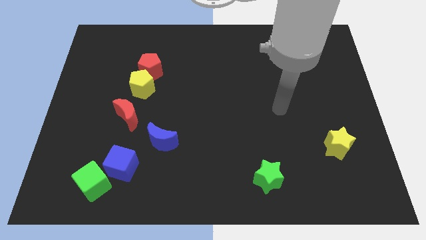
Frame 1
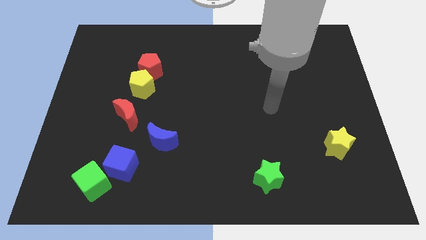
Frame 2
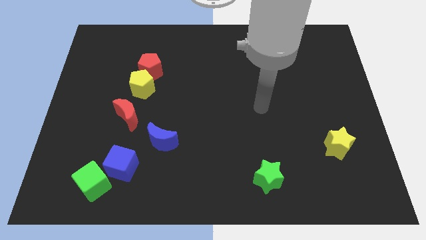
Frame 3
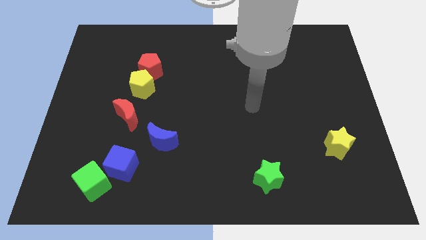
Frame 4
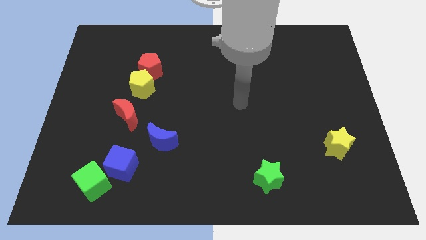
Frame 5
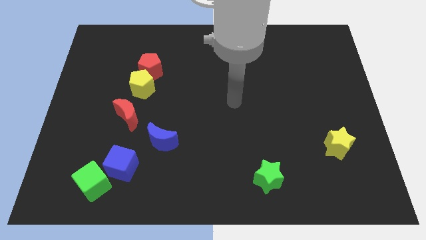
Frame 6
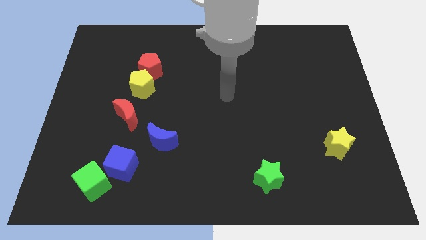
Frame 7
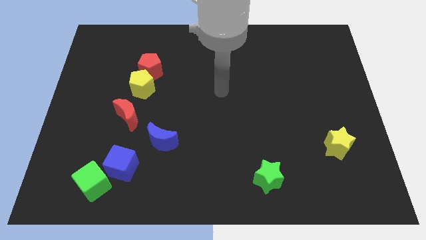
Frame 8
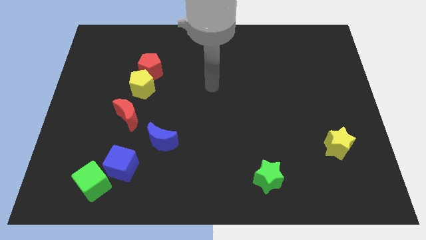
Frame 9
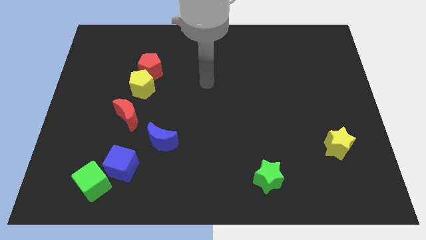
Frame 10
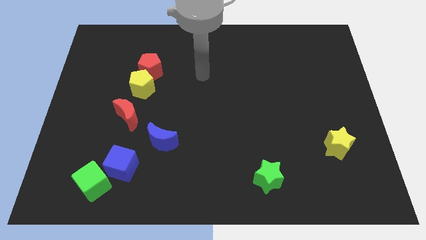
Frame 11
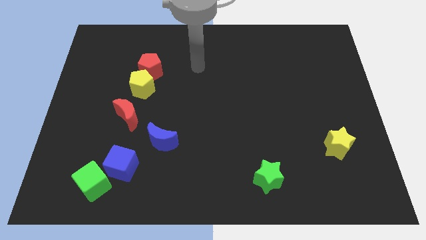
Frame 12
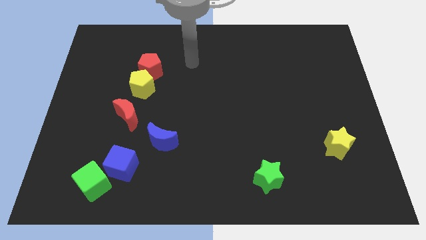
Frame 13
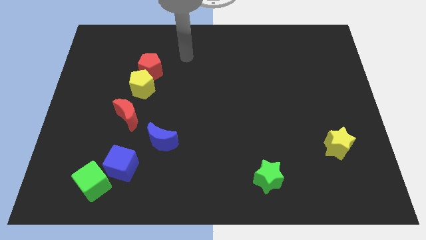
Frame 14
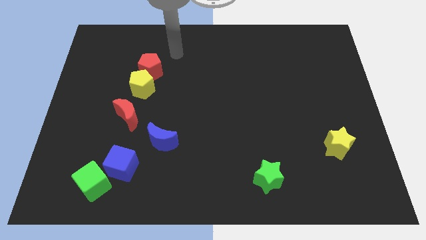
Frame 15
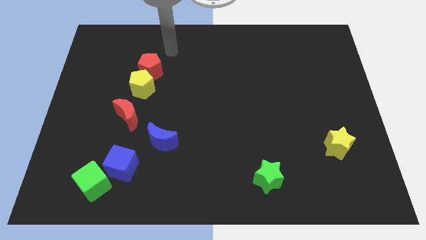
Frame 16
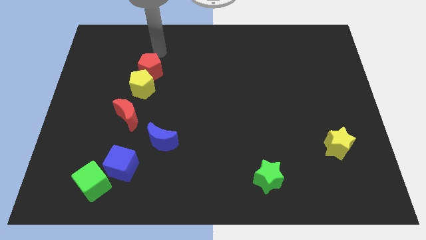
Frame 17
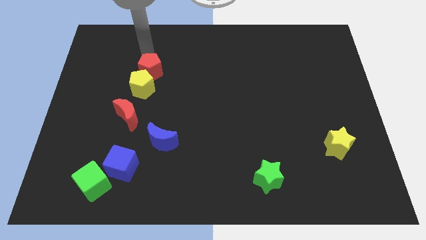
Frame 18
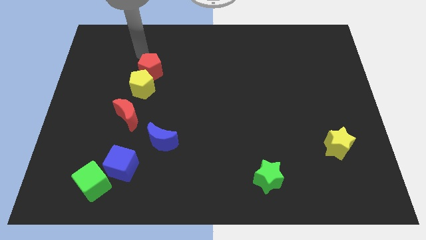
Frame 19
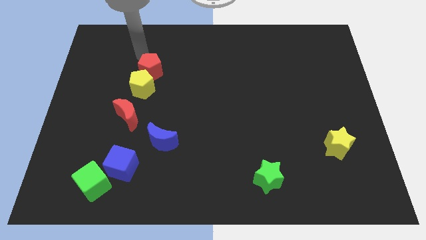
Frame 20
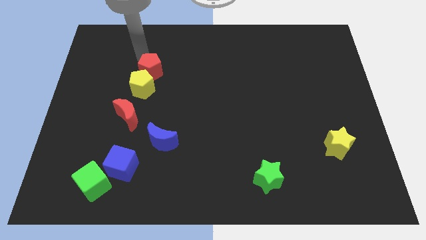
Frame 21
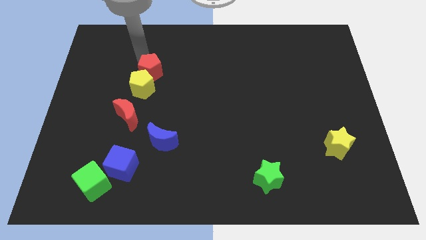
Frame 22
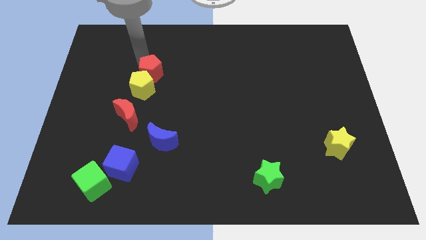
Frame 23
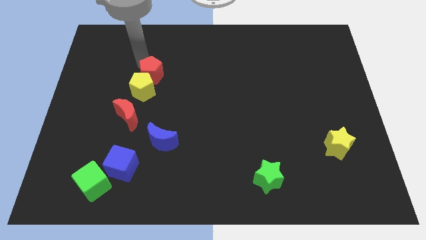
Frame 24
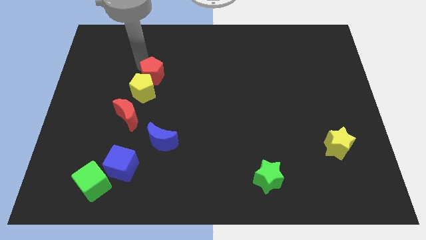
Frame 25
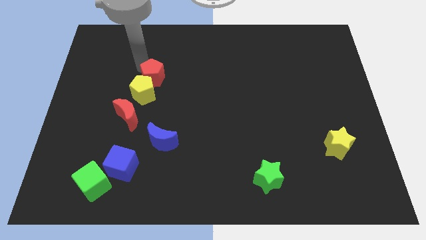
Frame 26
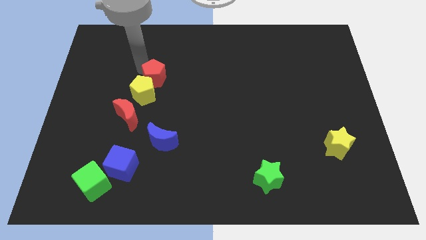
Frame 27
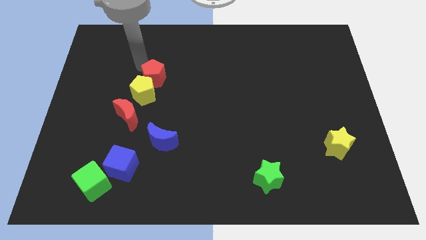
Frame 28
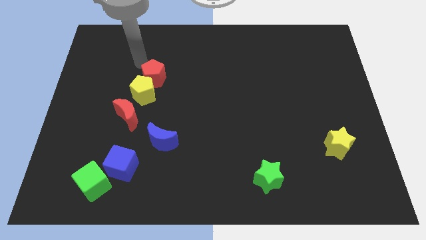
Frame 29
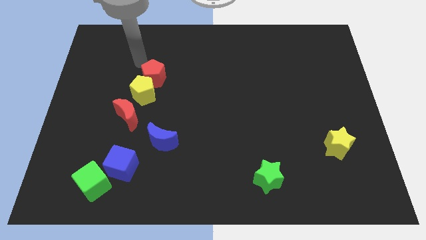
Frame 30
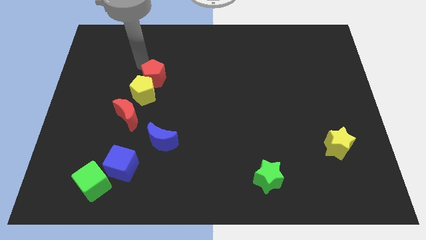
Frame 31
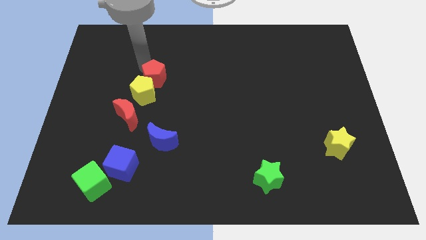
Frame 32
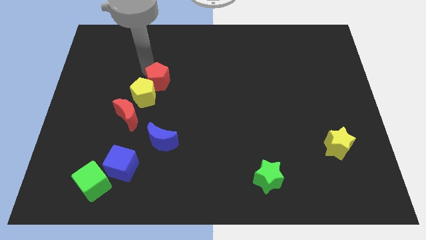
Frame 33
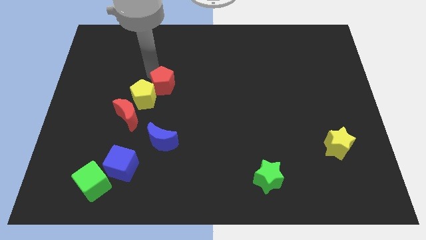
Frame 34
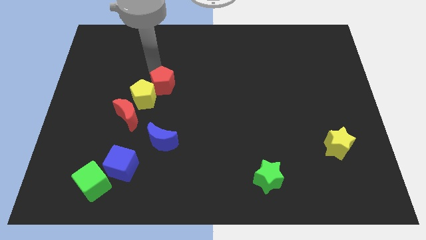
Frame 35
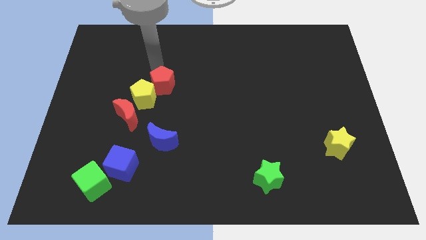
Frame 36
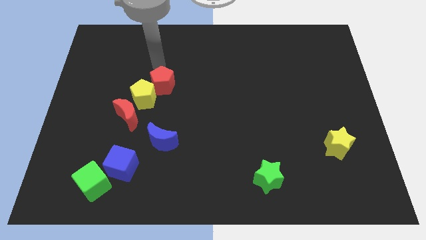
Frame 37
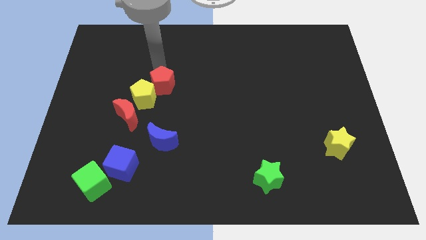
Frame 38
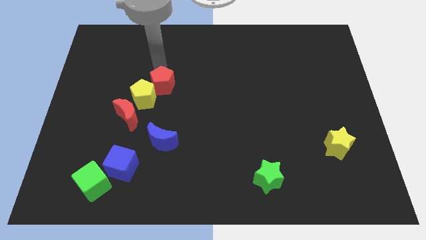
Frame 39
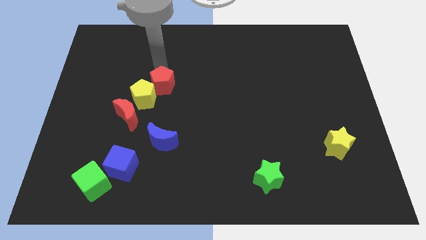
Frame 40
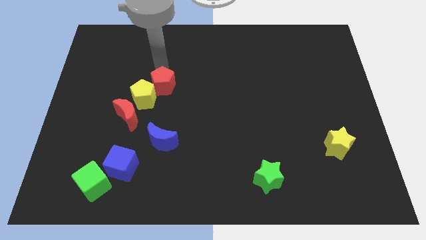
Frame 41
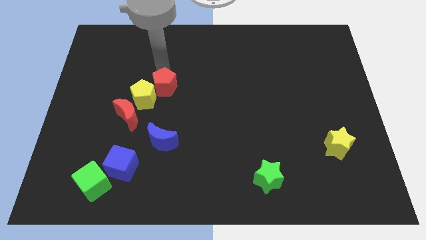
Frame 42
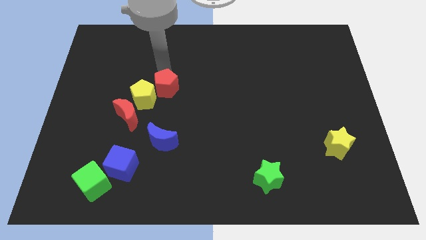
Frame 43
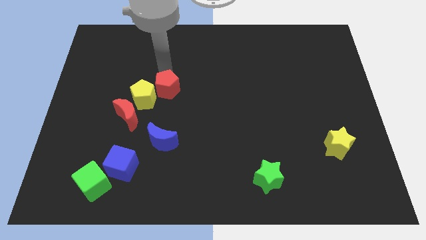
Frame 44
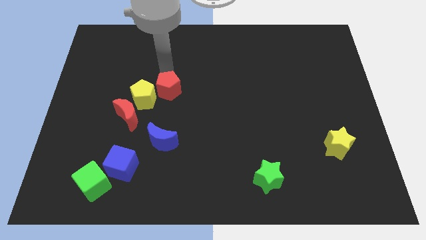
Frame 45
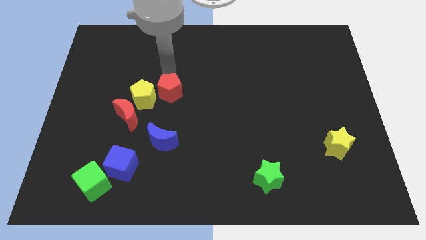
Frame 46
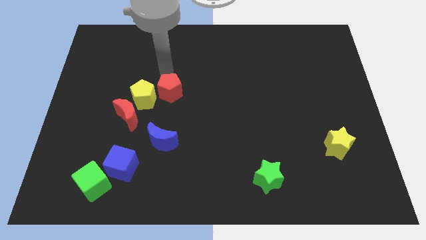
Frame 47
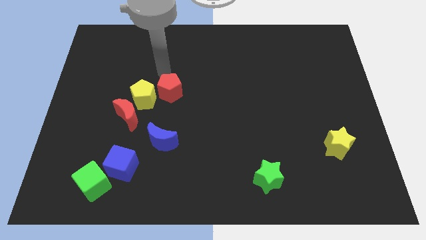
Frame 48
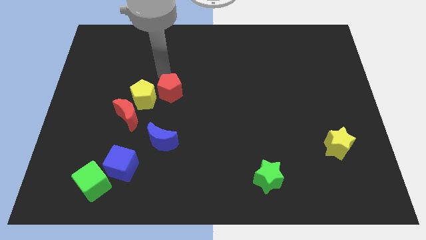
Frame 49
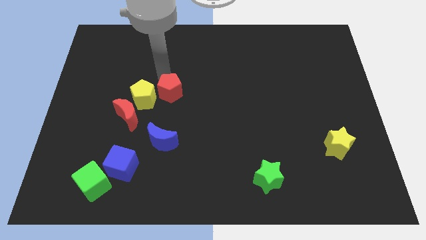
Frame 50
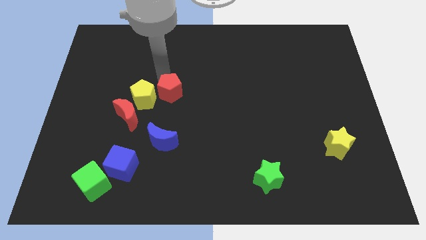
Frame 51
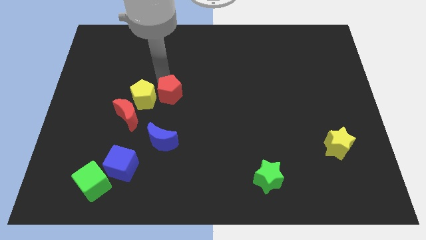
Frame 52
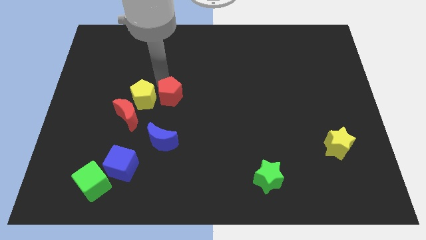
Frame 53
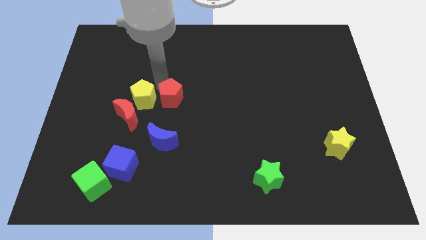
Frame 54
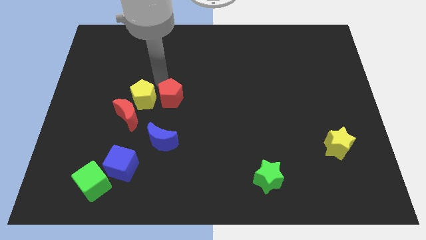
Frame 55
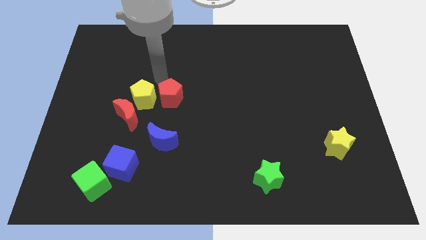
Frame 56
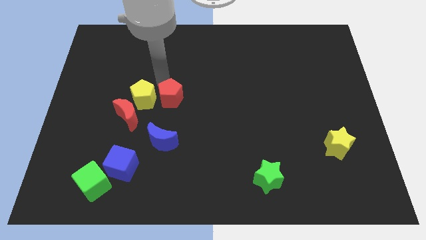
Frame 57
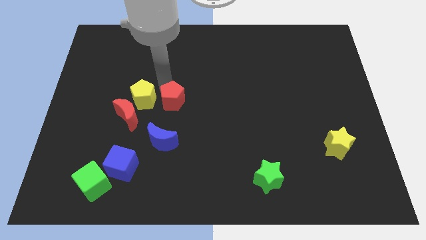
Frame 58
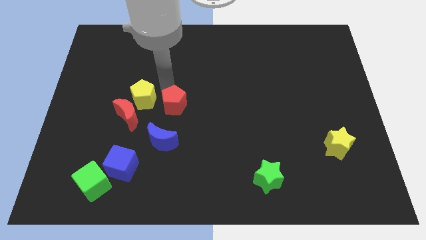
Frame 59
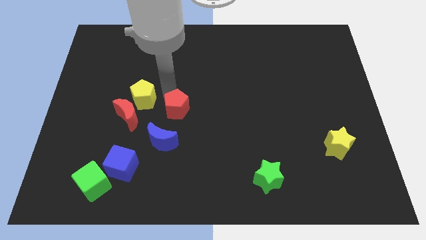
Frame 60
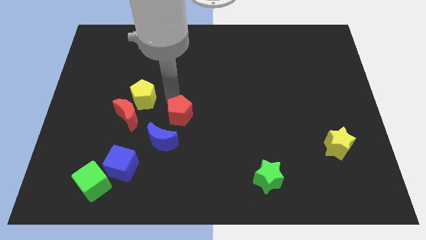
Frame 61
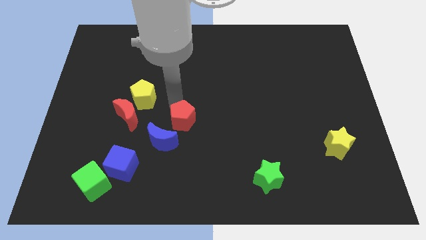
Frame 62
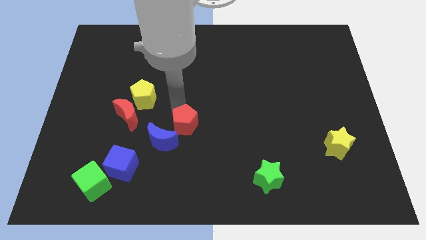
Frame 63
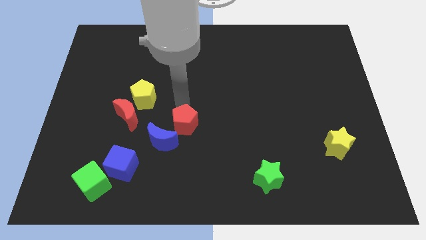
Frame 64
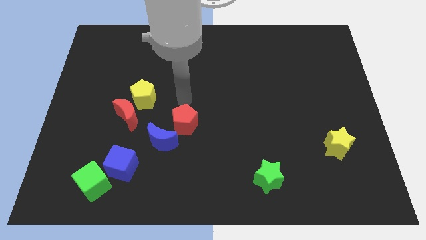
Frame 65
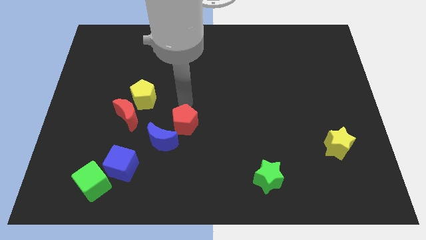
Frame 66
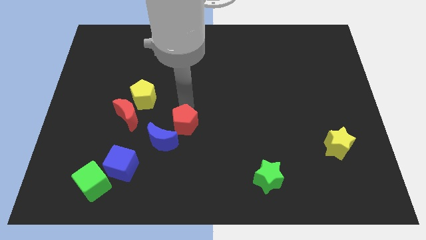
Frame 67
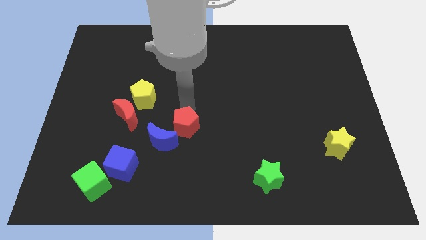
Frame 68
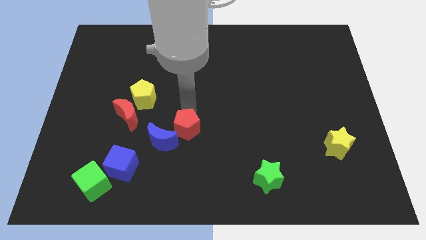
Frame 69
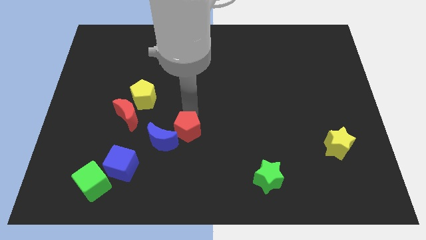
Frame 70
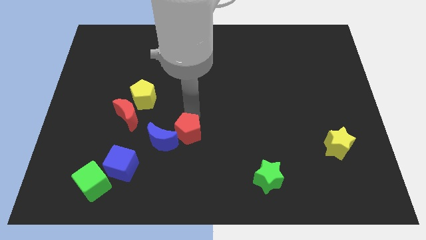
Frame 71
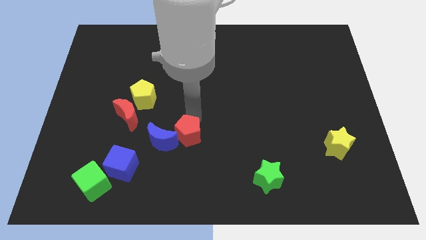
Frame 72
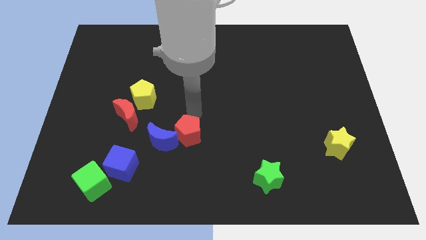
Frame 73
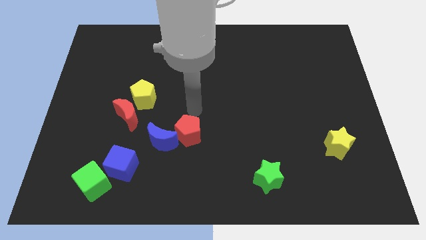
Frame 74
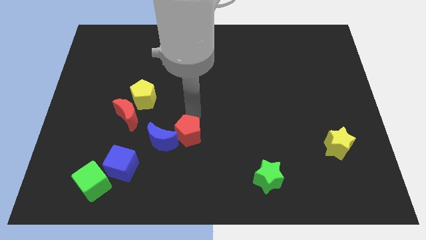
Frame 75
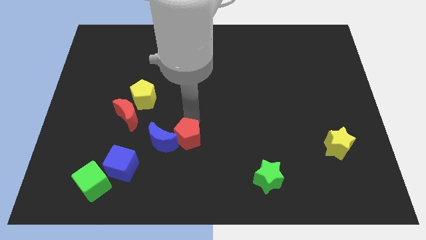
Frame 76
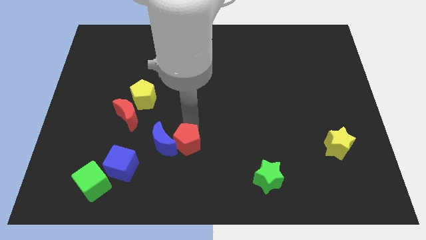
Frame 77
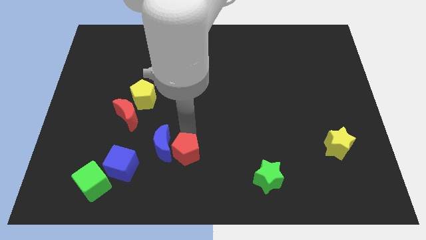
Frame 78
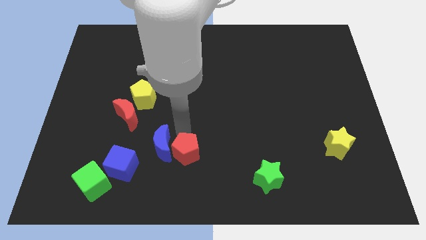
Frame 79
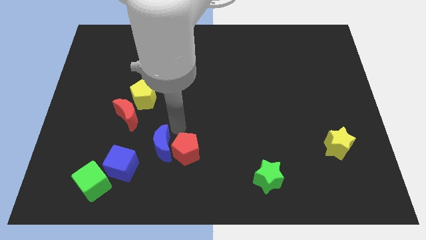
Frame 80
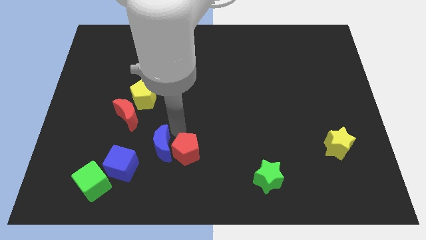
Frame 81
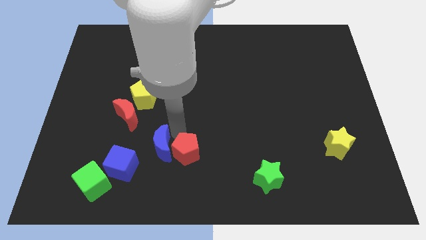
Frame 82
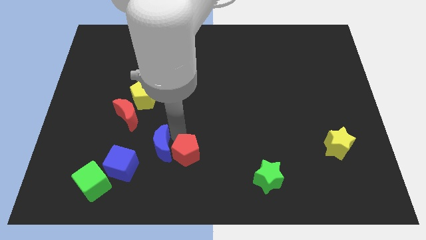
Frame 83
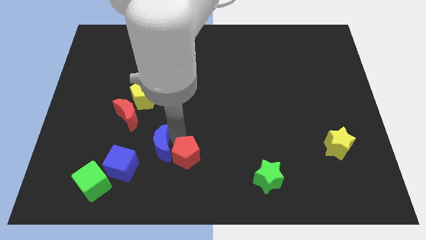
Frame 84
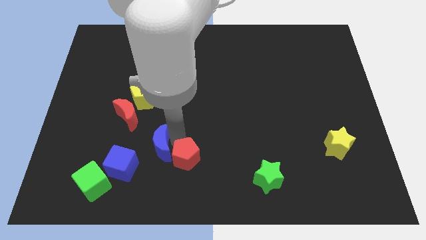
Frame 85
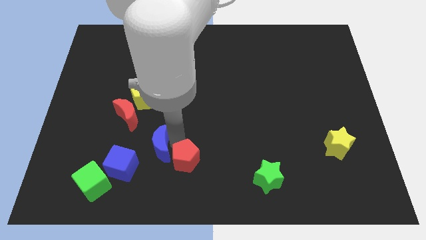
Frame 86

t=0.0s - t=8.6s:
move the red pentagon to the bottom side
